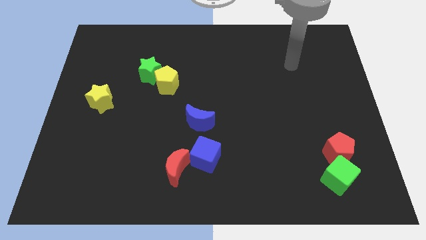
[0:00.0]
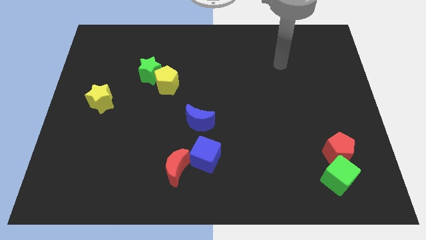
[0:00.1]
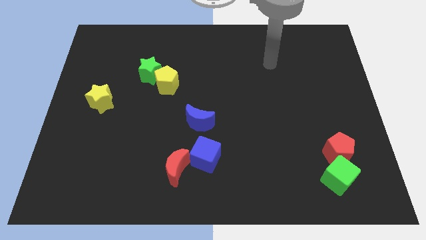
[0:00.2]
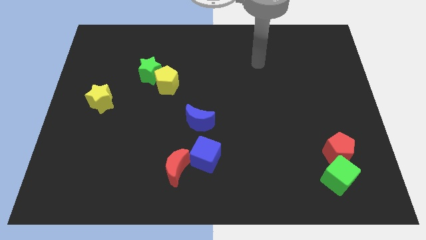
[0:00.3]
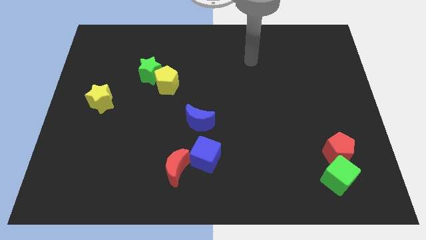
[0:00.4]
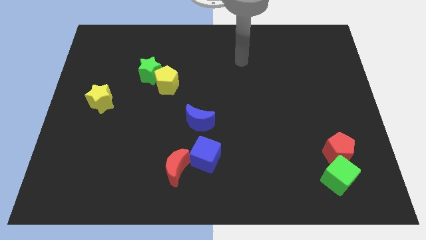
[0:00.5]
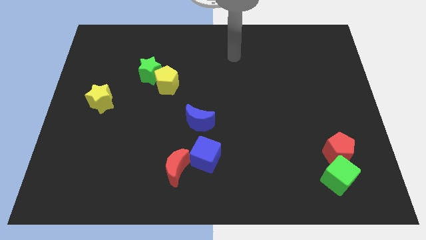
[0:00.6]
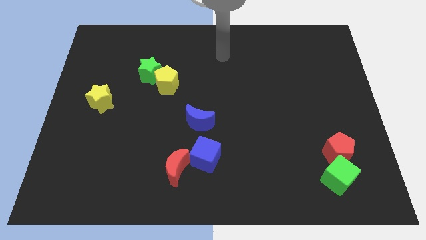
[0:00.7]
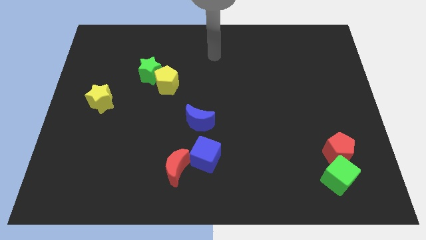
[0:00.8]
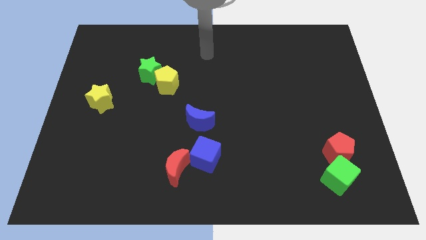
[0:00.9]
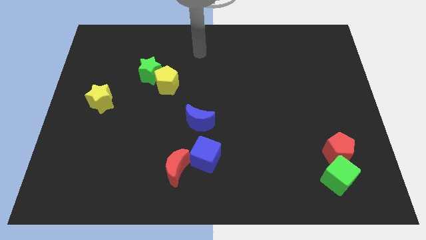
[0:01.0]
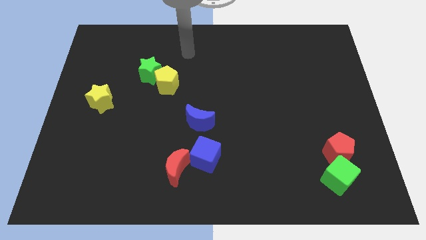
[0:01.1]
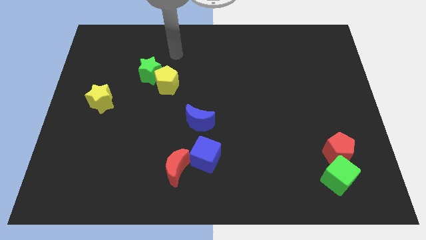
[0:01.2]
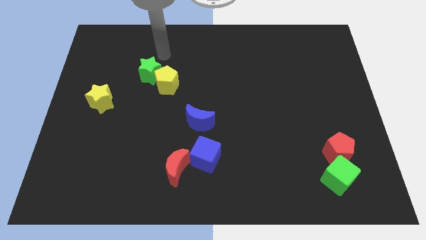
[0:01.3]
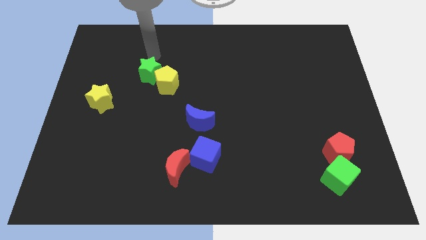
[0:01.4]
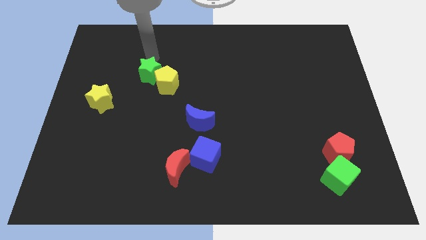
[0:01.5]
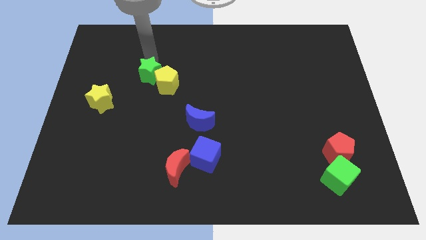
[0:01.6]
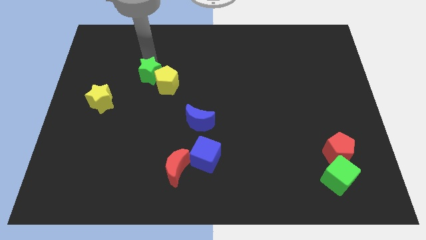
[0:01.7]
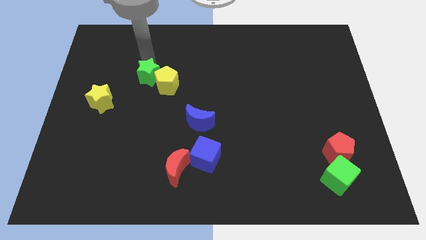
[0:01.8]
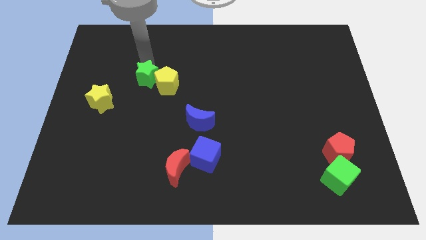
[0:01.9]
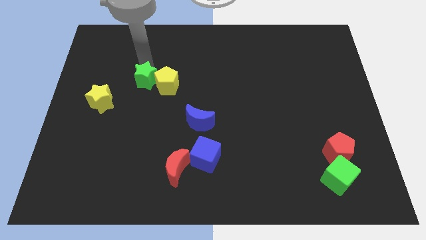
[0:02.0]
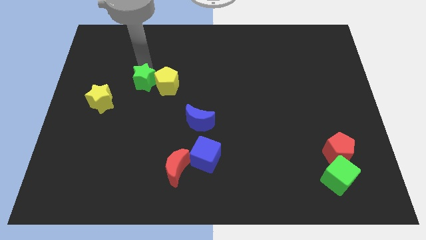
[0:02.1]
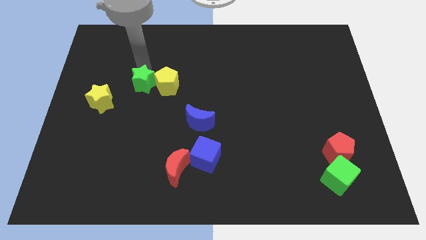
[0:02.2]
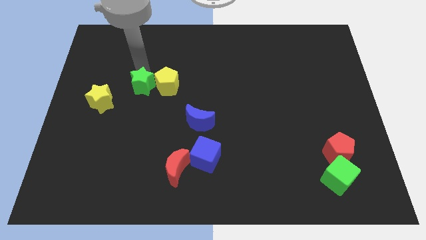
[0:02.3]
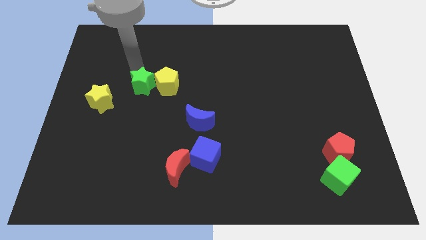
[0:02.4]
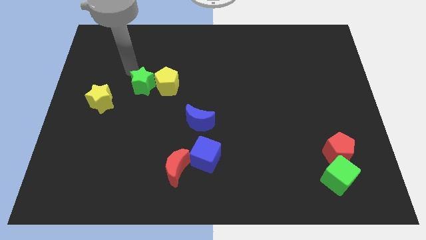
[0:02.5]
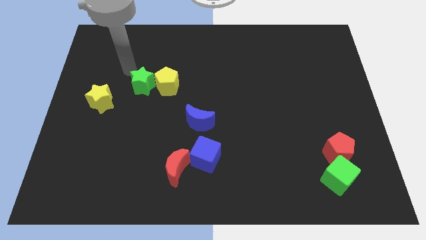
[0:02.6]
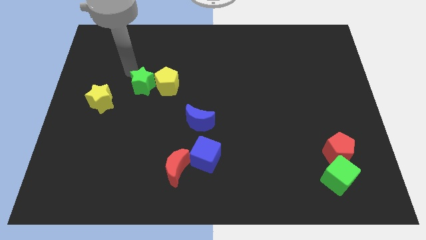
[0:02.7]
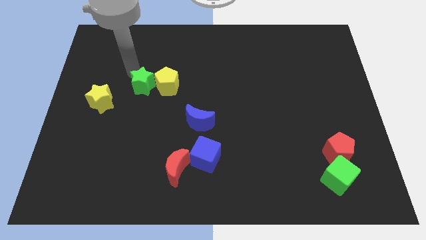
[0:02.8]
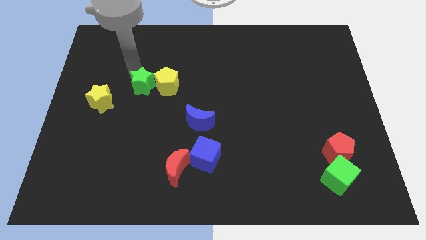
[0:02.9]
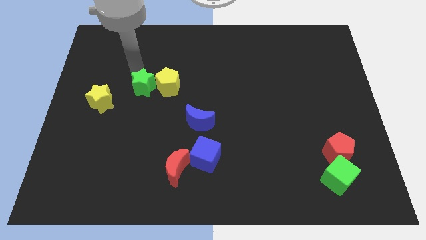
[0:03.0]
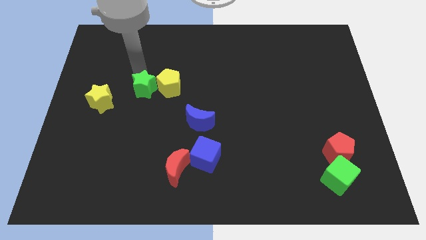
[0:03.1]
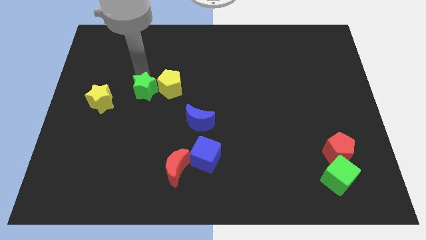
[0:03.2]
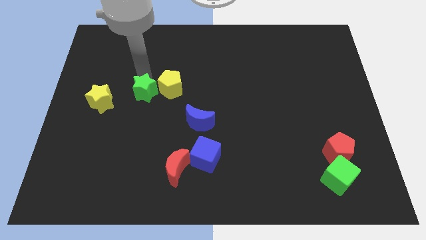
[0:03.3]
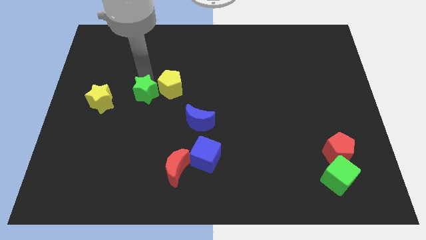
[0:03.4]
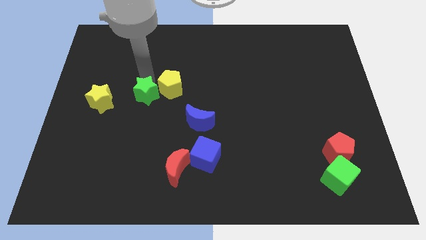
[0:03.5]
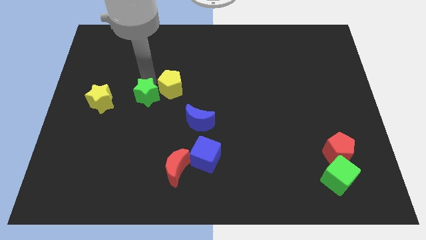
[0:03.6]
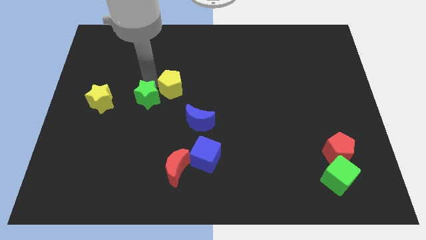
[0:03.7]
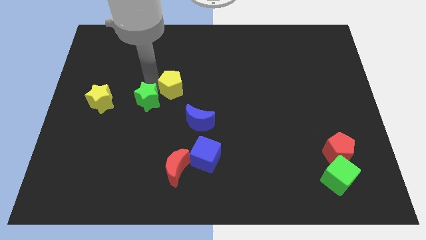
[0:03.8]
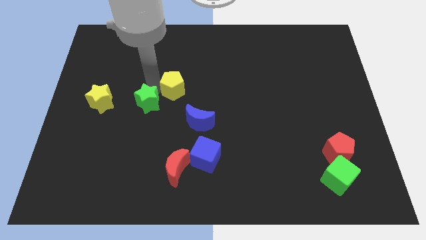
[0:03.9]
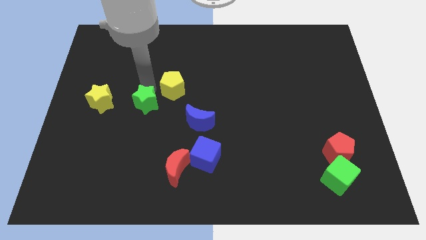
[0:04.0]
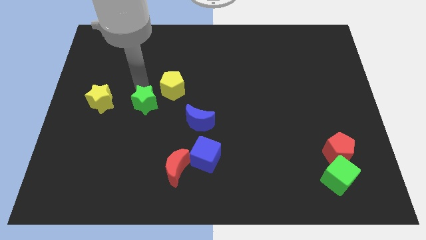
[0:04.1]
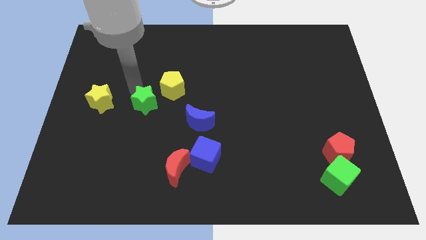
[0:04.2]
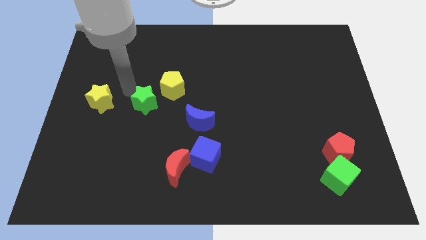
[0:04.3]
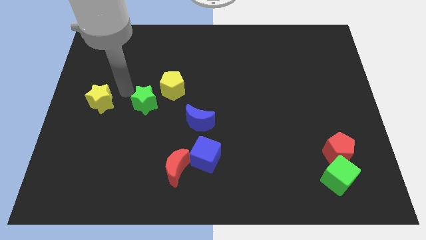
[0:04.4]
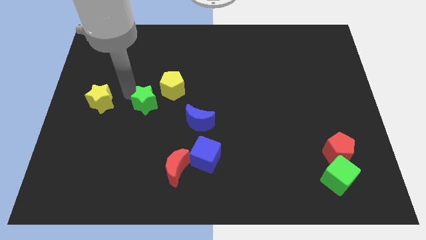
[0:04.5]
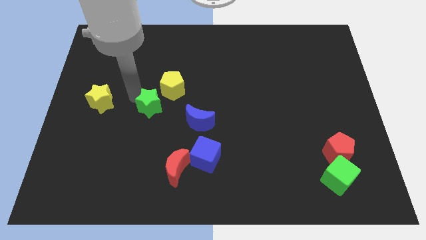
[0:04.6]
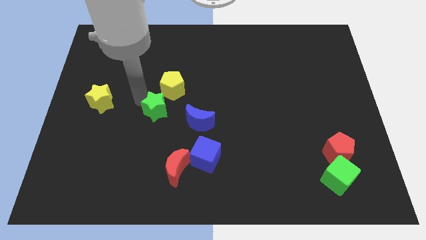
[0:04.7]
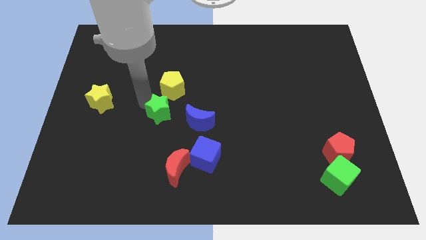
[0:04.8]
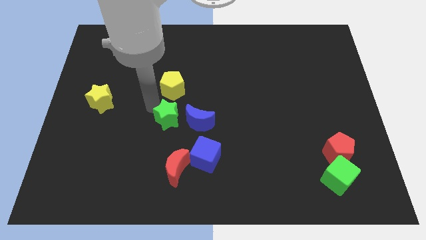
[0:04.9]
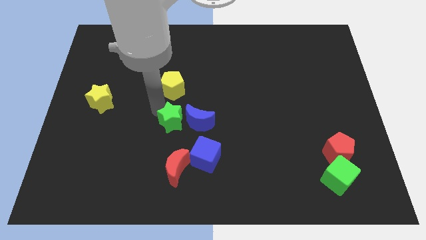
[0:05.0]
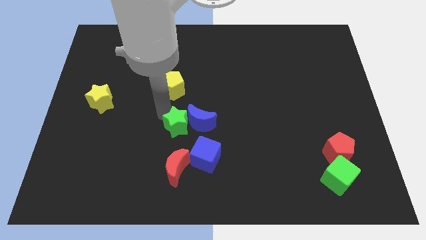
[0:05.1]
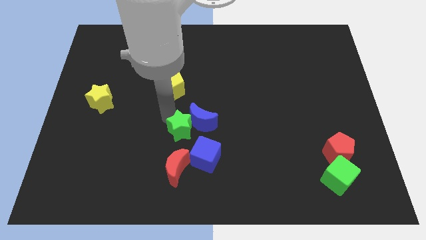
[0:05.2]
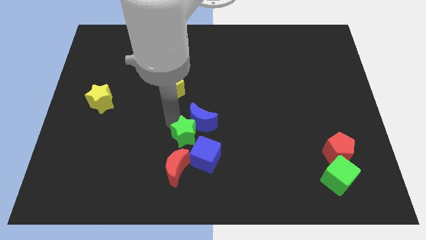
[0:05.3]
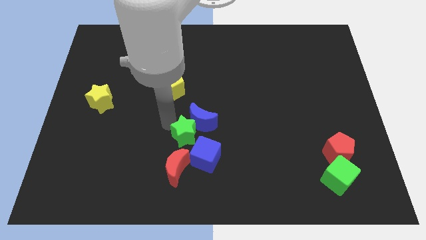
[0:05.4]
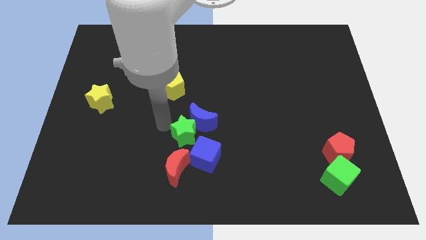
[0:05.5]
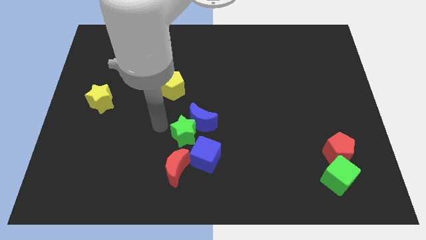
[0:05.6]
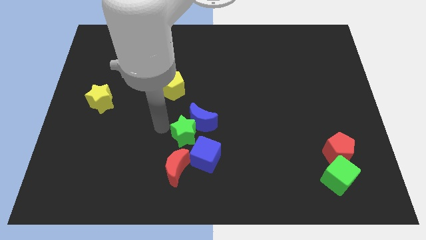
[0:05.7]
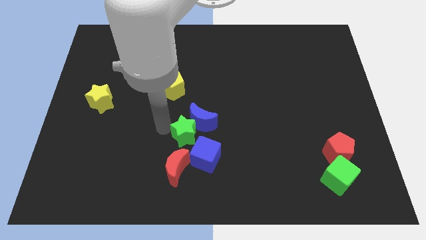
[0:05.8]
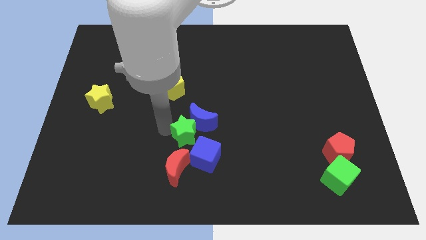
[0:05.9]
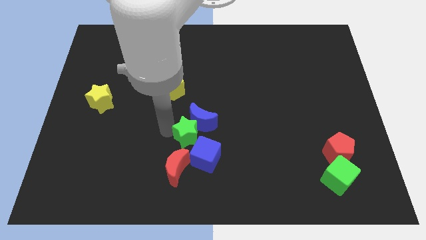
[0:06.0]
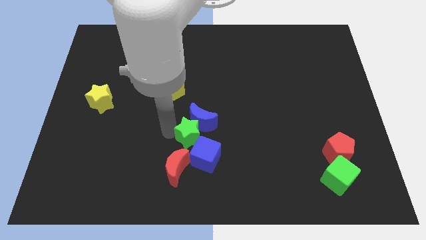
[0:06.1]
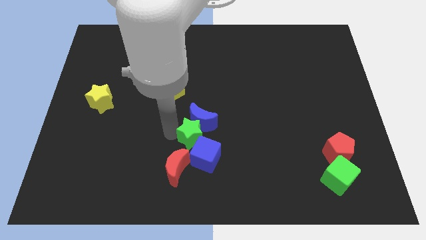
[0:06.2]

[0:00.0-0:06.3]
move the green star diagonally down and to the right

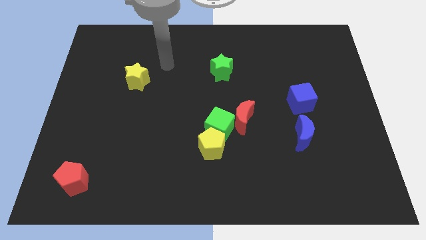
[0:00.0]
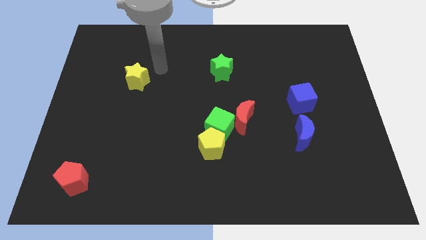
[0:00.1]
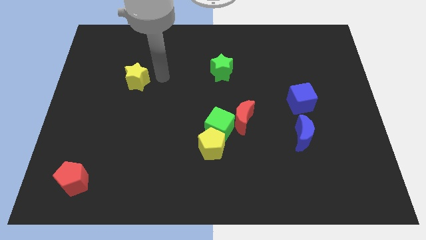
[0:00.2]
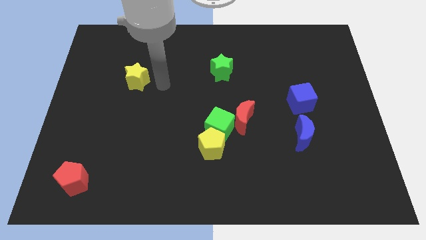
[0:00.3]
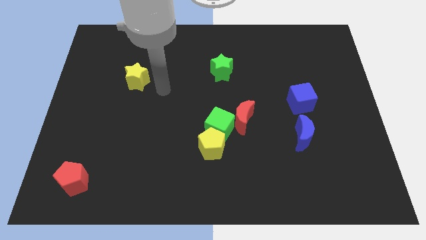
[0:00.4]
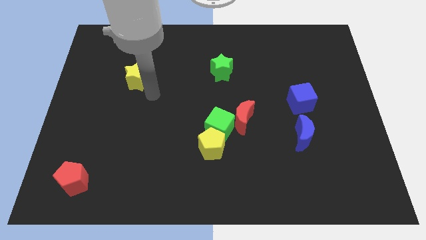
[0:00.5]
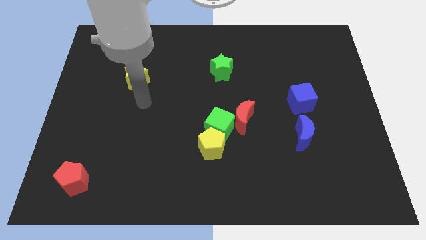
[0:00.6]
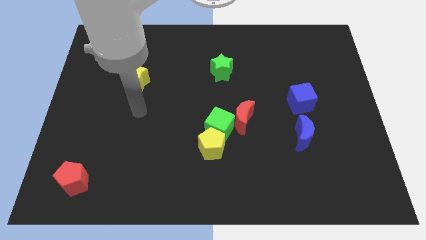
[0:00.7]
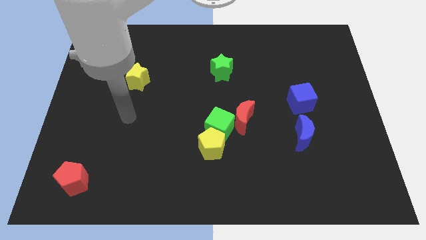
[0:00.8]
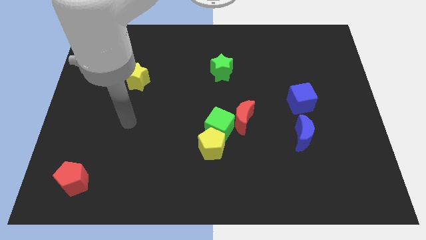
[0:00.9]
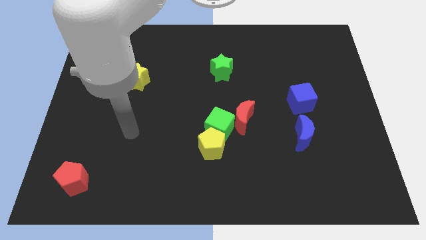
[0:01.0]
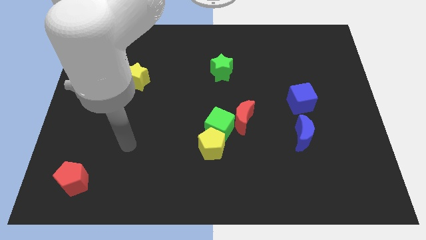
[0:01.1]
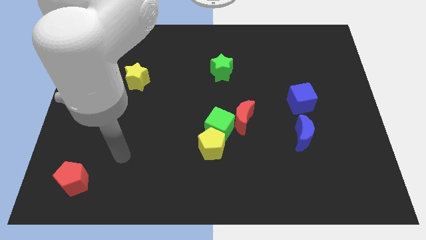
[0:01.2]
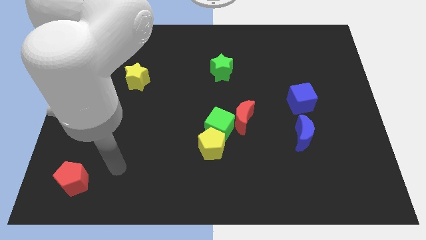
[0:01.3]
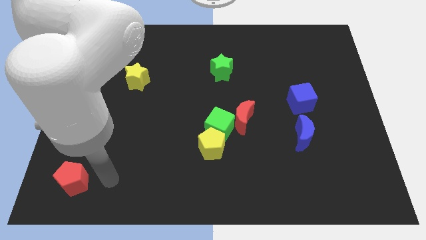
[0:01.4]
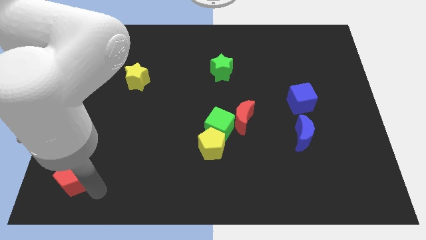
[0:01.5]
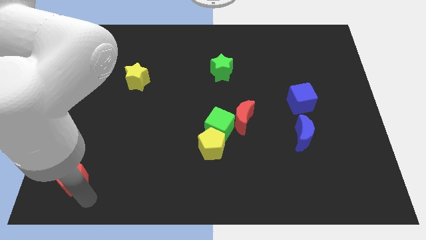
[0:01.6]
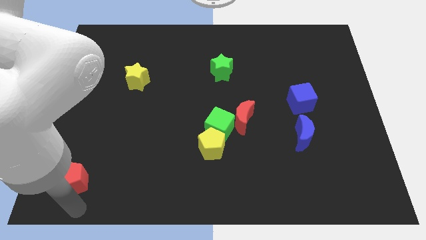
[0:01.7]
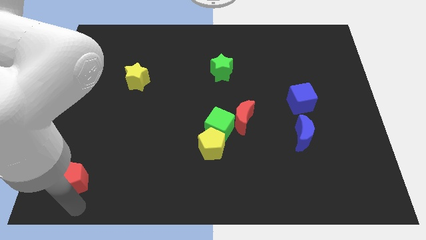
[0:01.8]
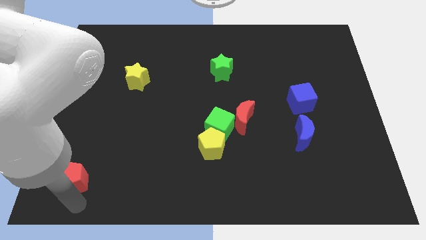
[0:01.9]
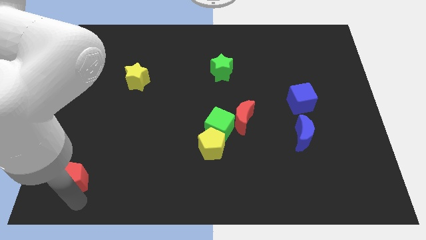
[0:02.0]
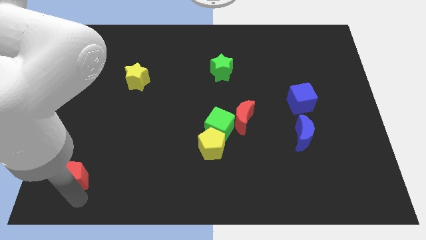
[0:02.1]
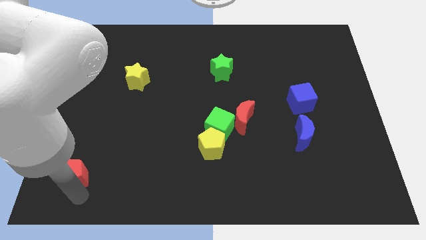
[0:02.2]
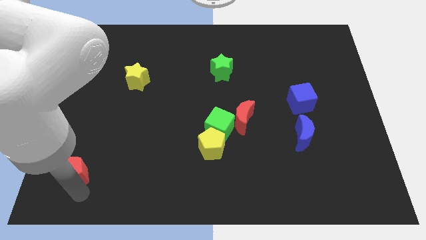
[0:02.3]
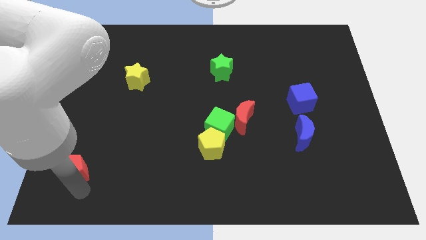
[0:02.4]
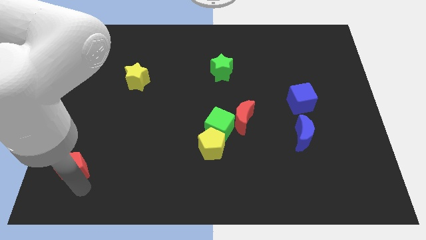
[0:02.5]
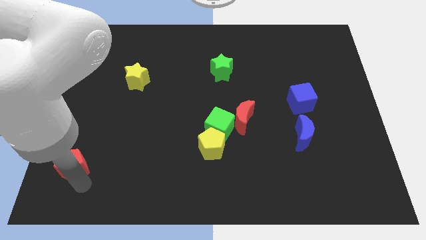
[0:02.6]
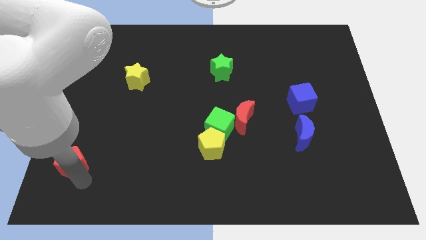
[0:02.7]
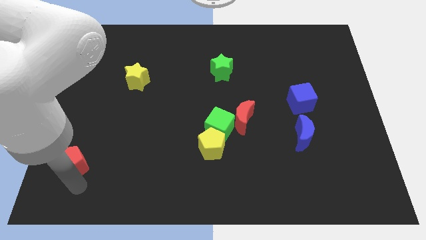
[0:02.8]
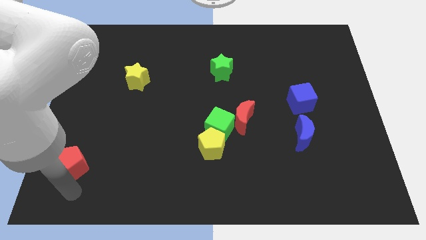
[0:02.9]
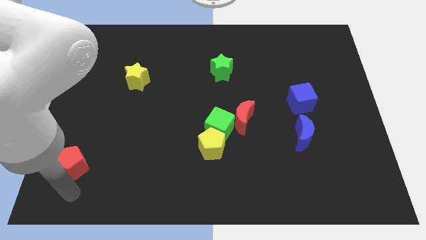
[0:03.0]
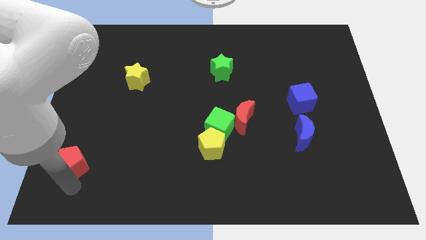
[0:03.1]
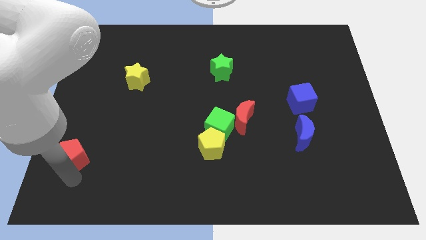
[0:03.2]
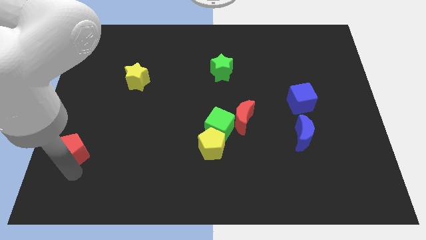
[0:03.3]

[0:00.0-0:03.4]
slide the red pentagon a little upwards
